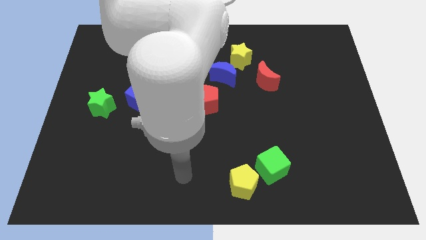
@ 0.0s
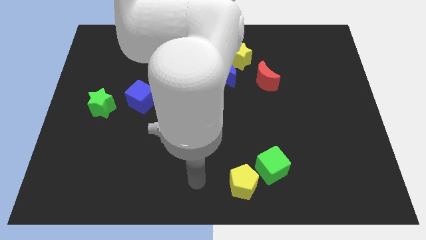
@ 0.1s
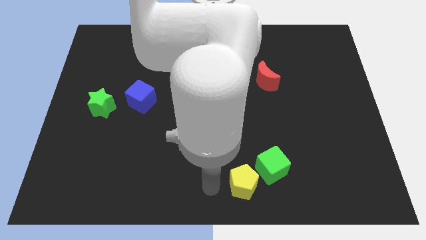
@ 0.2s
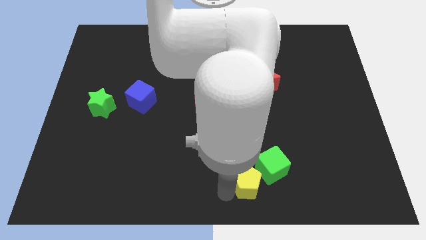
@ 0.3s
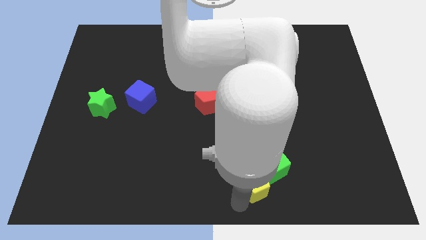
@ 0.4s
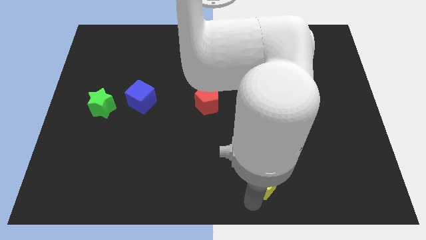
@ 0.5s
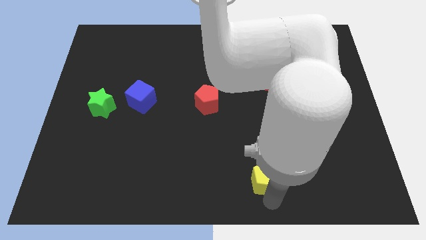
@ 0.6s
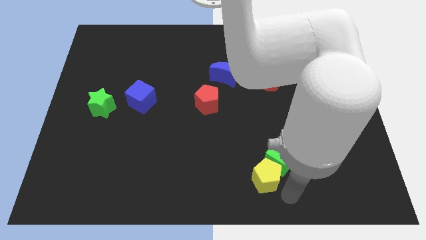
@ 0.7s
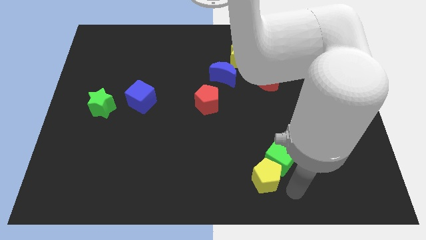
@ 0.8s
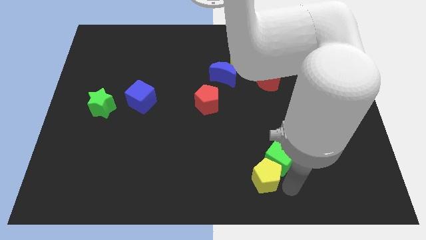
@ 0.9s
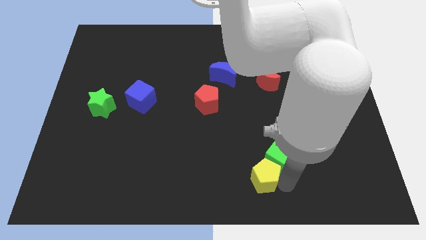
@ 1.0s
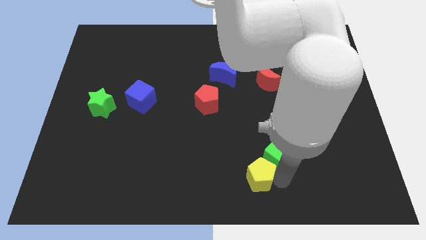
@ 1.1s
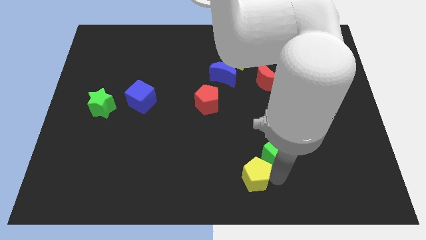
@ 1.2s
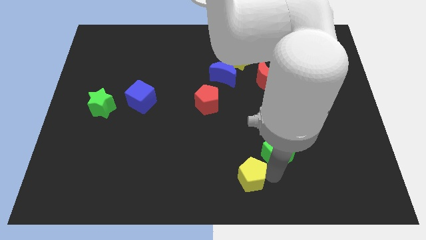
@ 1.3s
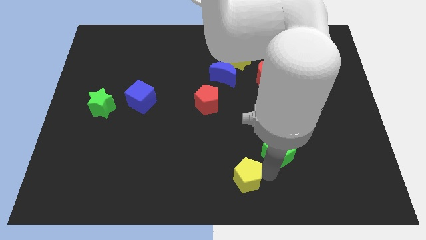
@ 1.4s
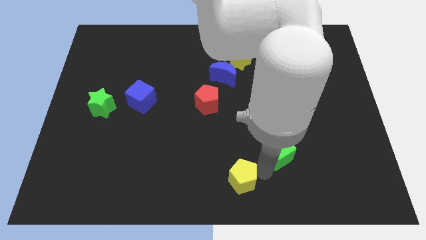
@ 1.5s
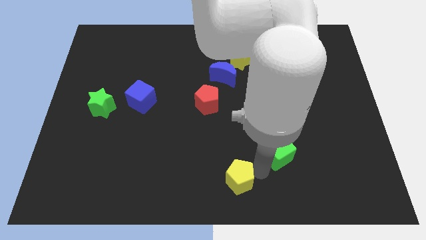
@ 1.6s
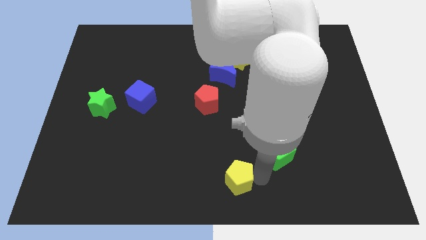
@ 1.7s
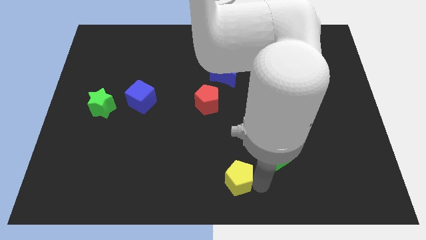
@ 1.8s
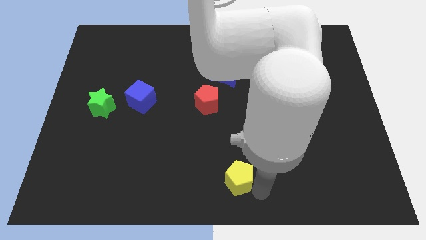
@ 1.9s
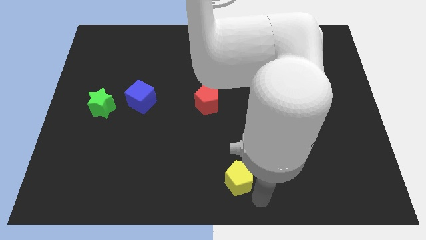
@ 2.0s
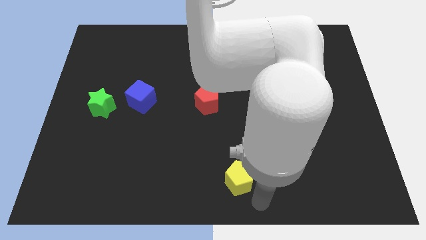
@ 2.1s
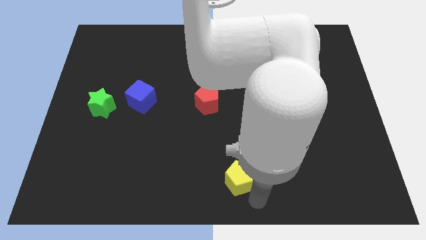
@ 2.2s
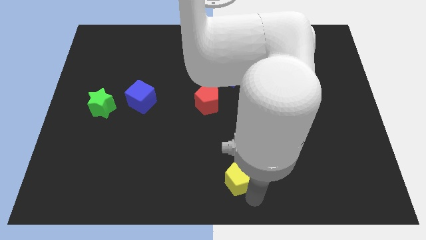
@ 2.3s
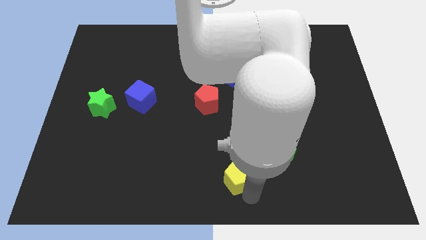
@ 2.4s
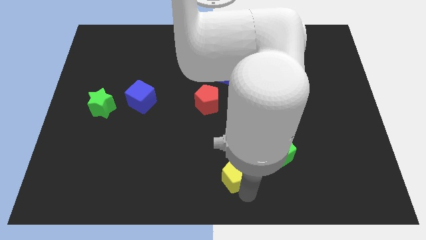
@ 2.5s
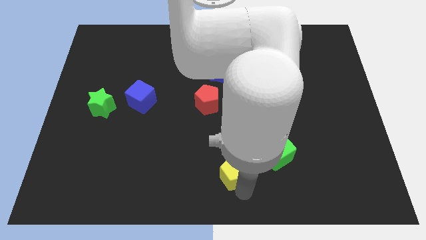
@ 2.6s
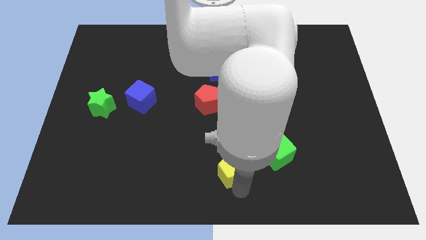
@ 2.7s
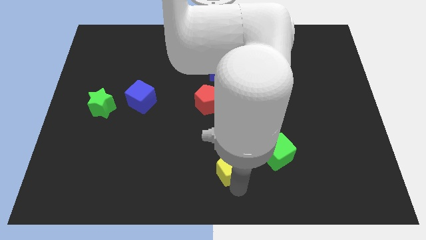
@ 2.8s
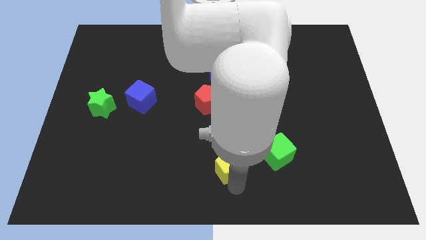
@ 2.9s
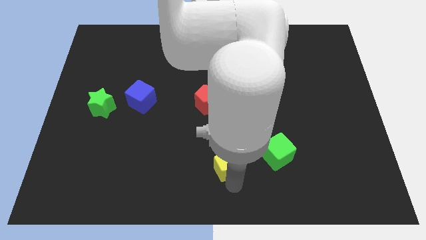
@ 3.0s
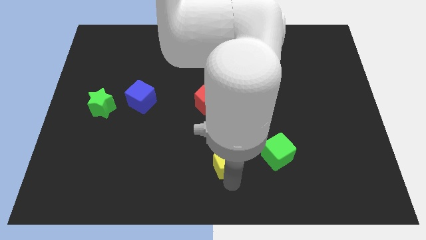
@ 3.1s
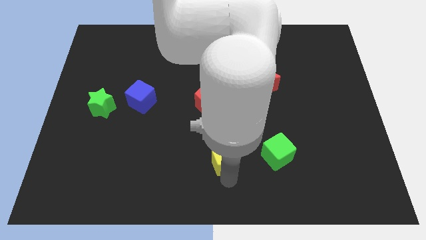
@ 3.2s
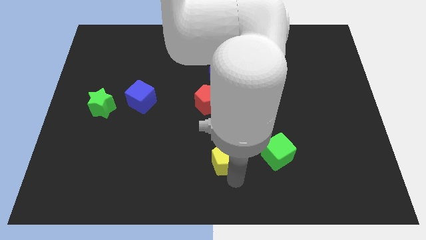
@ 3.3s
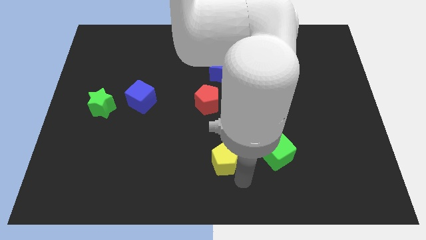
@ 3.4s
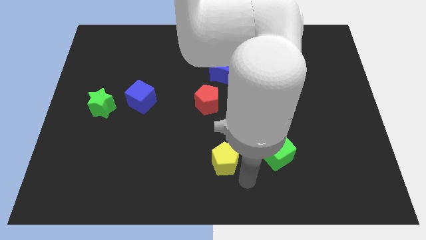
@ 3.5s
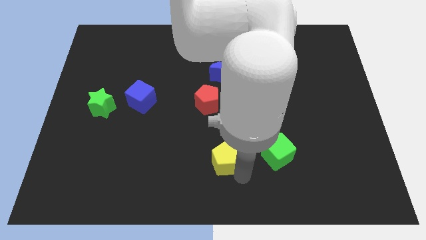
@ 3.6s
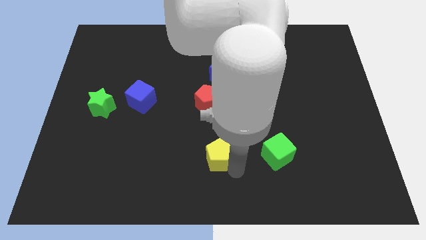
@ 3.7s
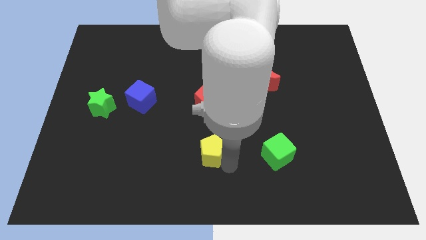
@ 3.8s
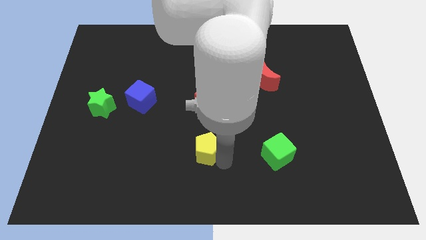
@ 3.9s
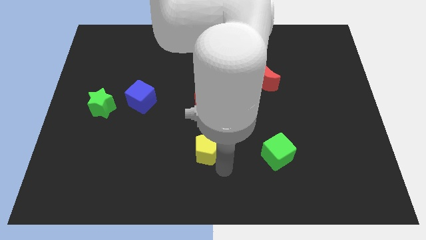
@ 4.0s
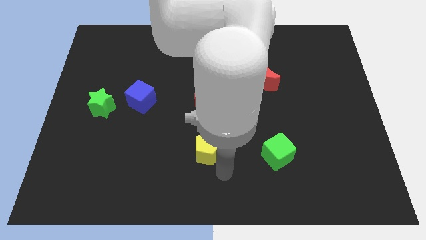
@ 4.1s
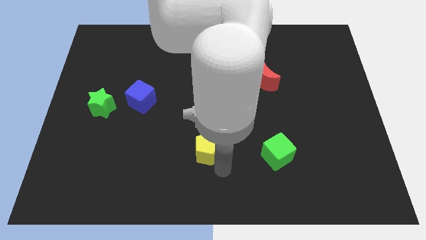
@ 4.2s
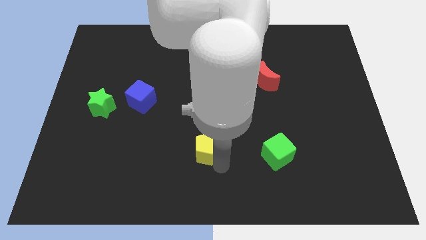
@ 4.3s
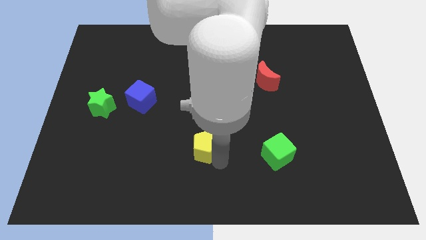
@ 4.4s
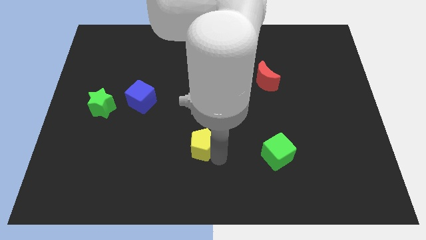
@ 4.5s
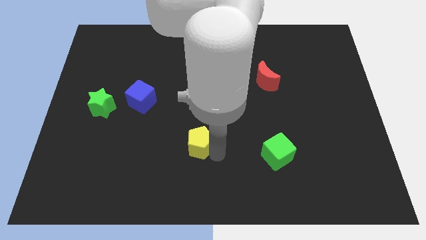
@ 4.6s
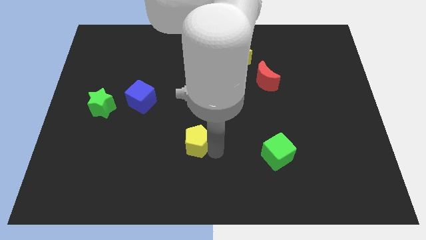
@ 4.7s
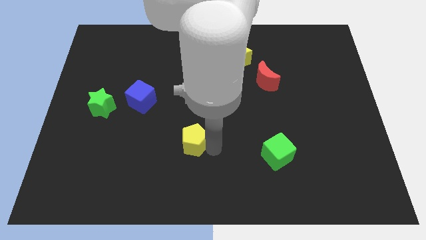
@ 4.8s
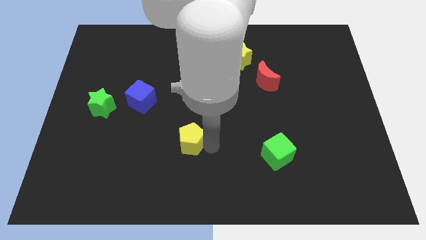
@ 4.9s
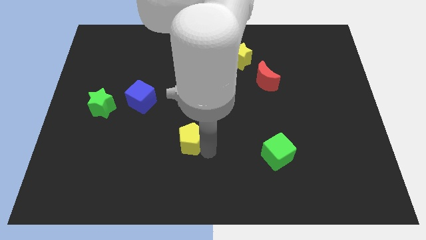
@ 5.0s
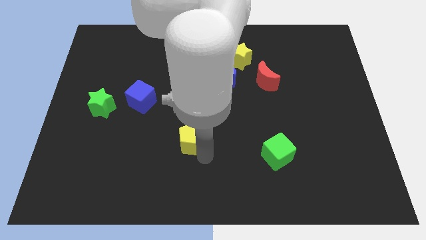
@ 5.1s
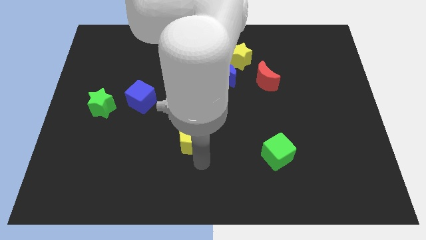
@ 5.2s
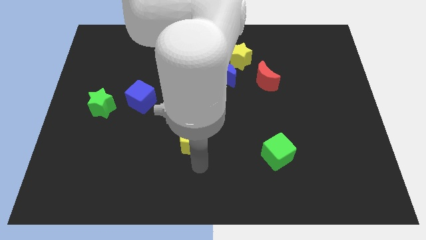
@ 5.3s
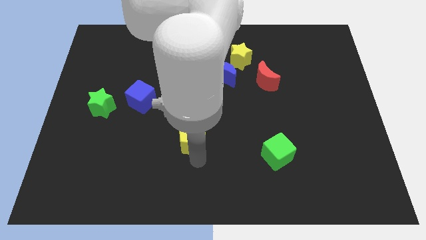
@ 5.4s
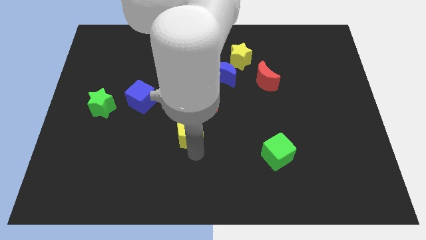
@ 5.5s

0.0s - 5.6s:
move the yellow pentagon to the bottom left of the red pentagon
